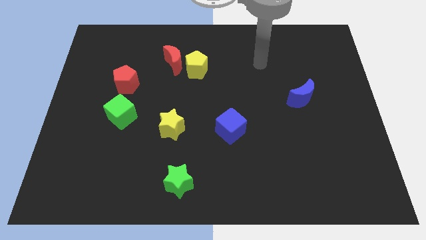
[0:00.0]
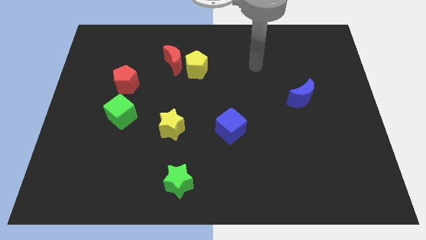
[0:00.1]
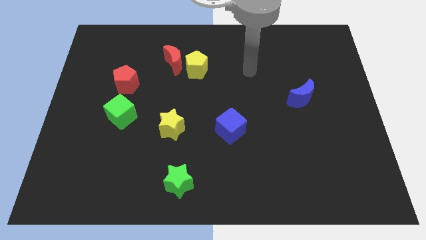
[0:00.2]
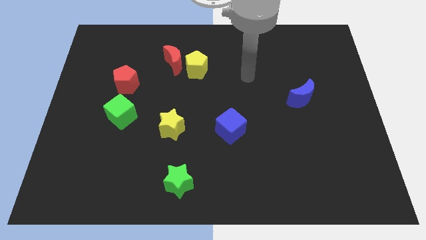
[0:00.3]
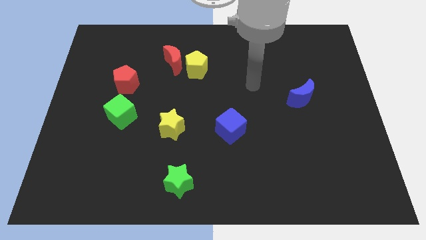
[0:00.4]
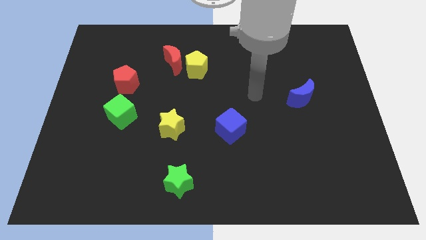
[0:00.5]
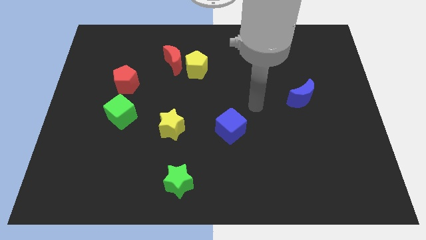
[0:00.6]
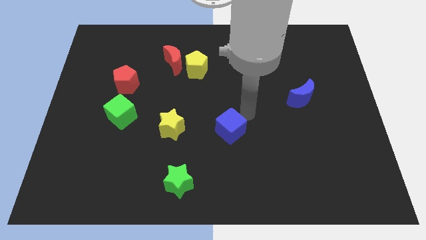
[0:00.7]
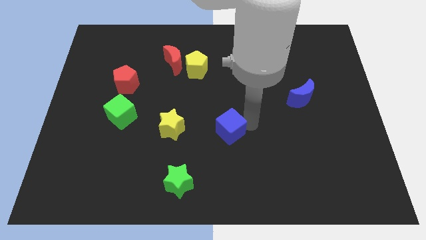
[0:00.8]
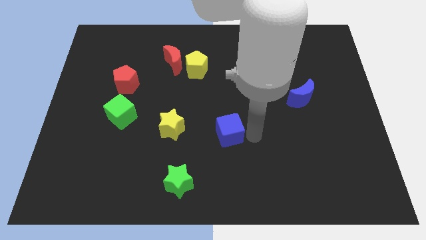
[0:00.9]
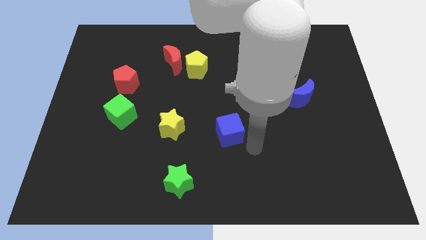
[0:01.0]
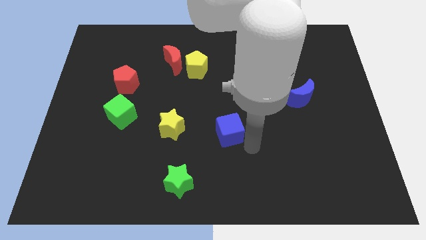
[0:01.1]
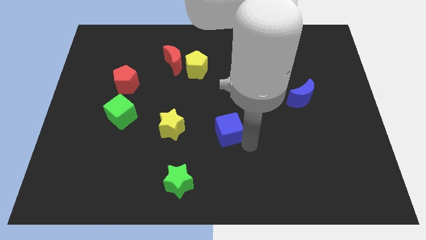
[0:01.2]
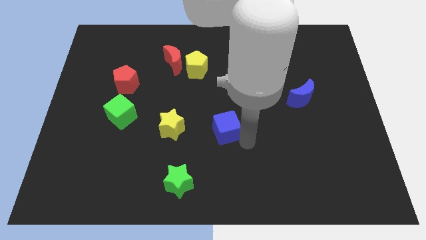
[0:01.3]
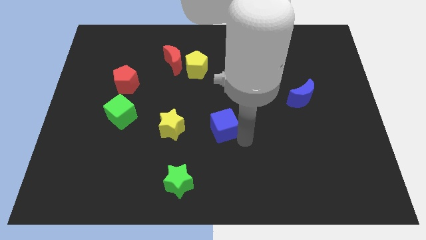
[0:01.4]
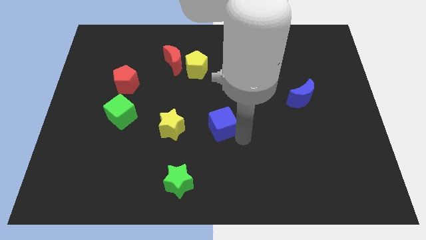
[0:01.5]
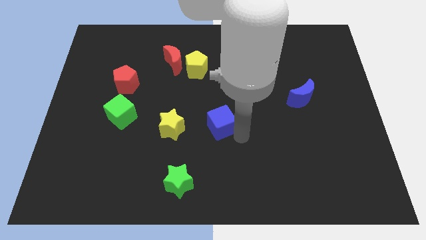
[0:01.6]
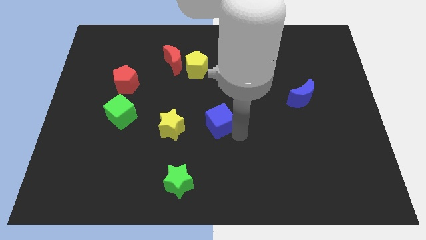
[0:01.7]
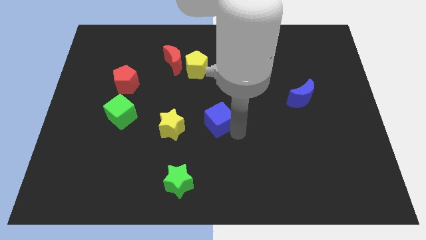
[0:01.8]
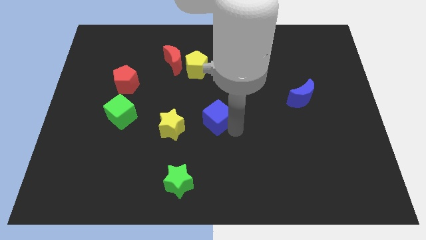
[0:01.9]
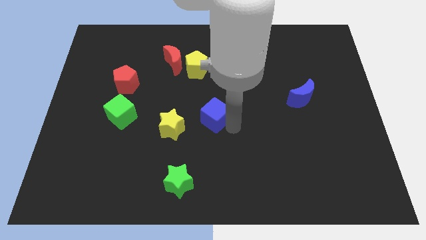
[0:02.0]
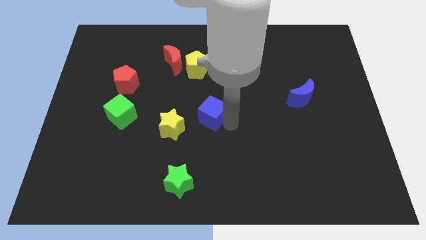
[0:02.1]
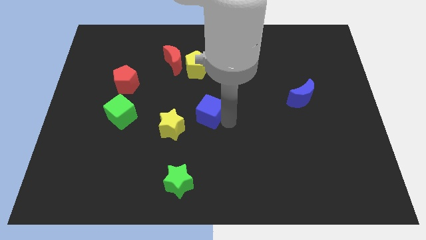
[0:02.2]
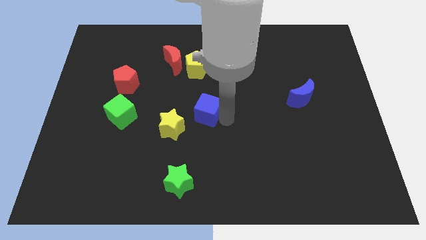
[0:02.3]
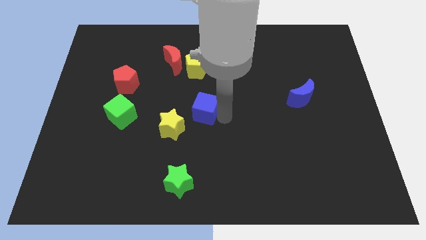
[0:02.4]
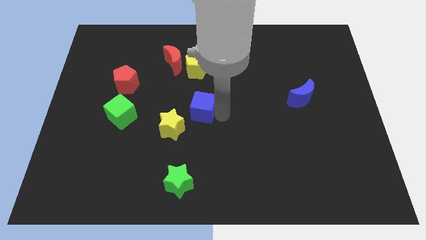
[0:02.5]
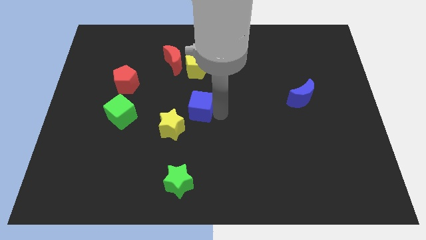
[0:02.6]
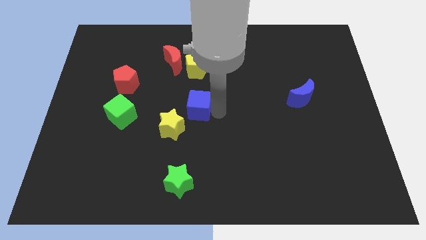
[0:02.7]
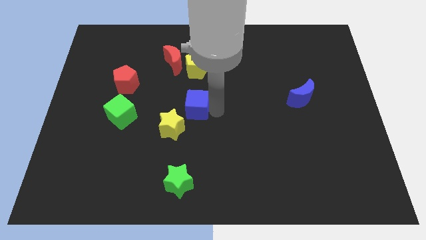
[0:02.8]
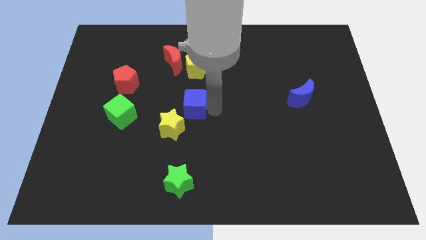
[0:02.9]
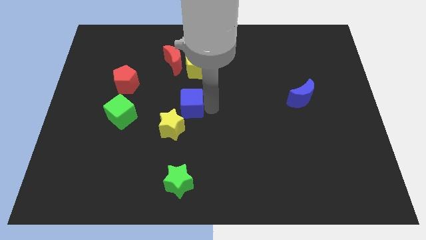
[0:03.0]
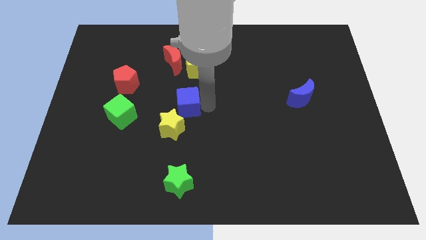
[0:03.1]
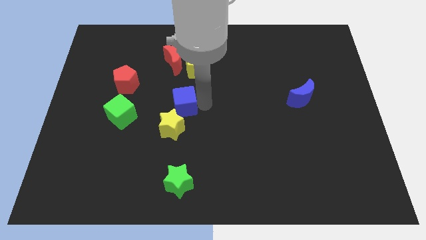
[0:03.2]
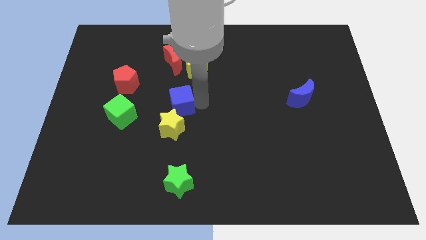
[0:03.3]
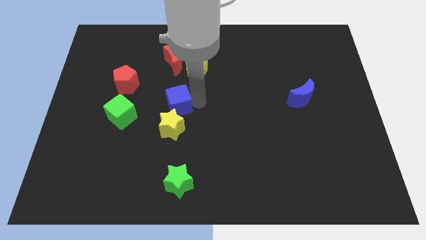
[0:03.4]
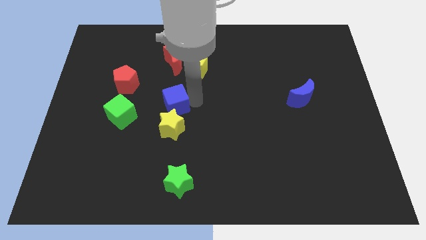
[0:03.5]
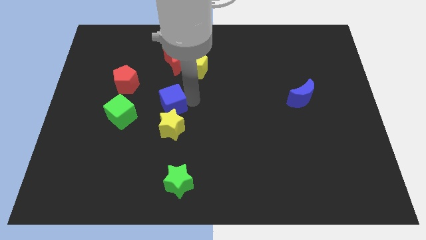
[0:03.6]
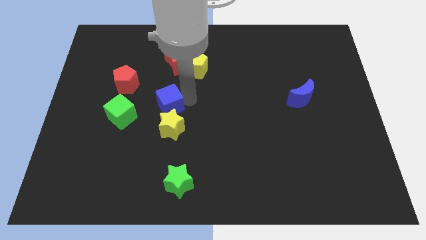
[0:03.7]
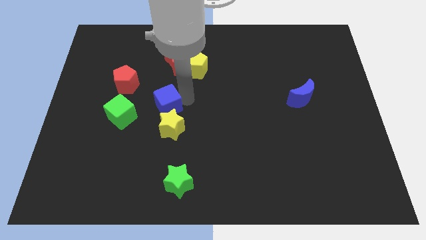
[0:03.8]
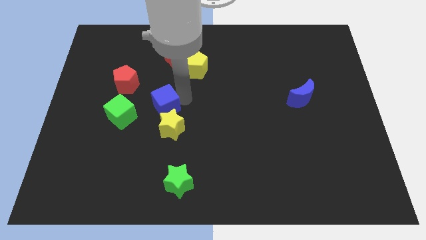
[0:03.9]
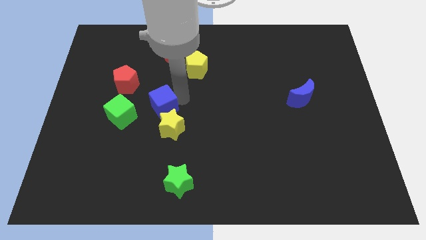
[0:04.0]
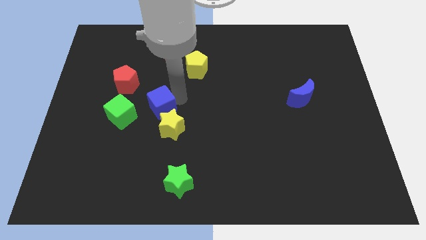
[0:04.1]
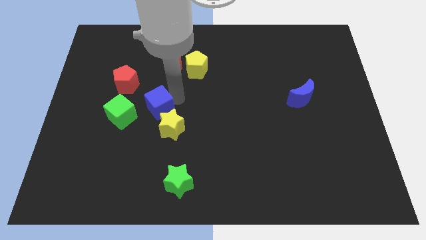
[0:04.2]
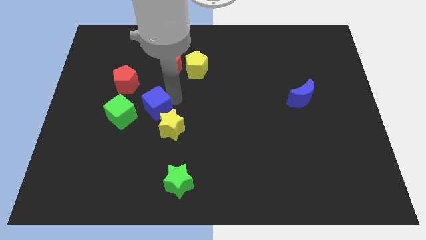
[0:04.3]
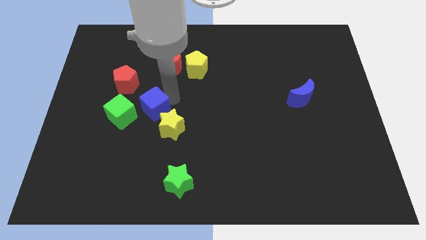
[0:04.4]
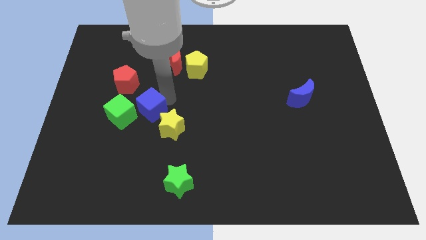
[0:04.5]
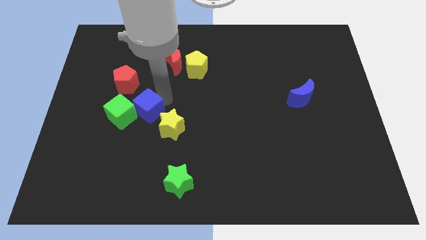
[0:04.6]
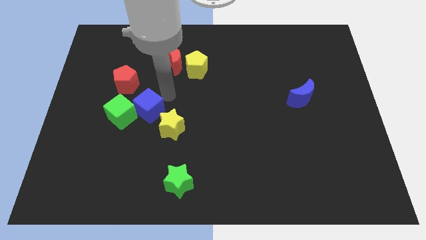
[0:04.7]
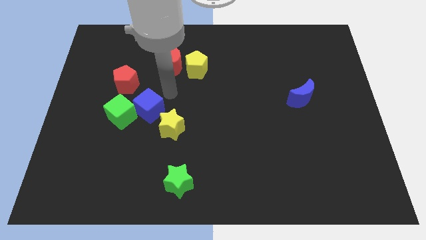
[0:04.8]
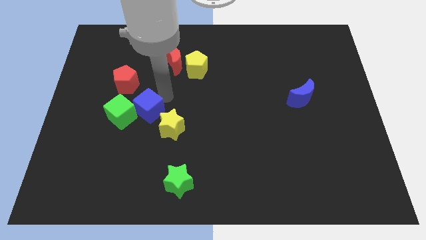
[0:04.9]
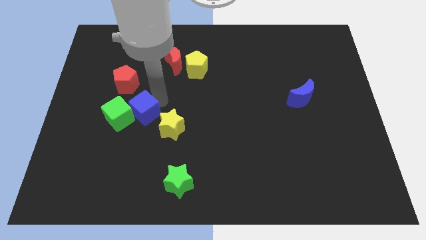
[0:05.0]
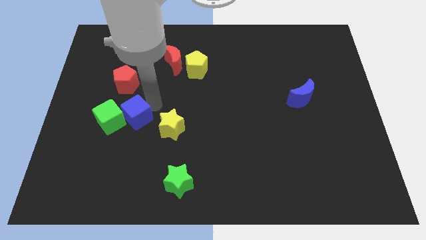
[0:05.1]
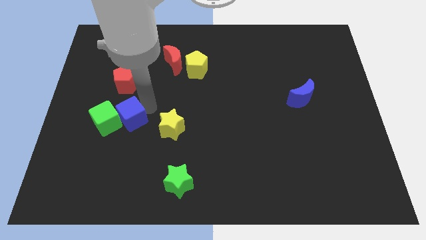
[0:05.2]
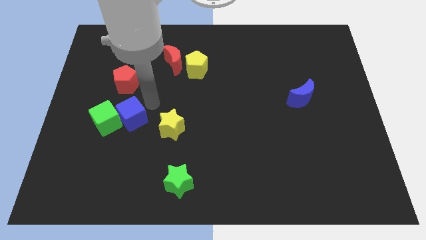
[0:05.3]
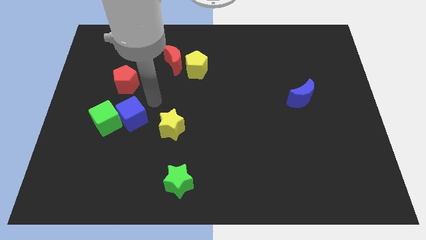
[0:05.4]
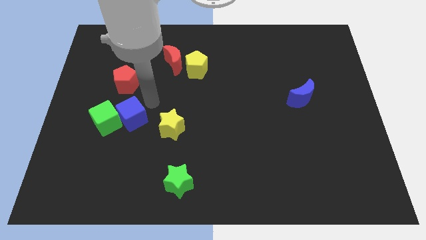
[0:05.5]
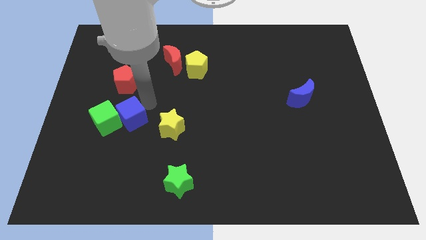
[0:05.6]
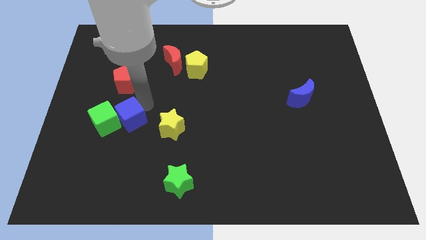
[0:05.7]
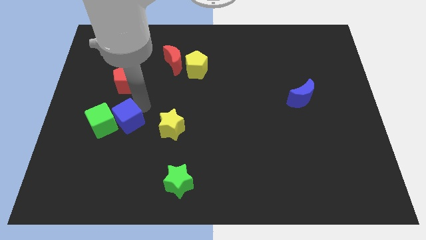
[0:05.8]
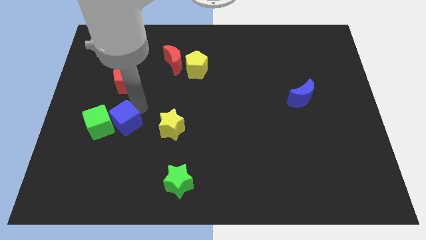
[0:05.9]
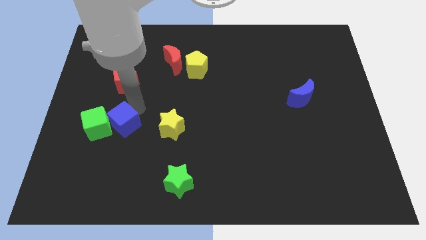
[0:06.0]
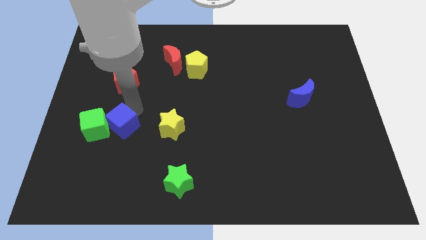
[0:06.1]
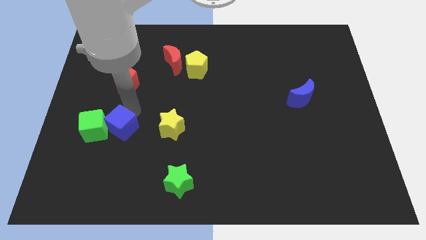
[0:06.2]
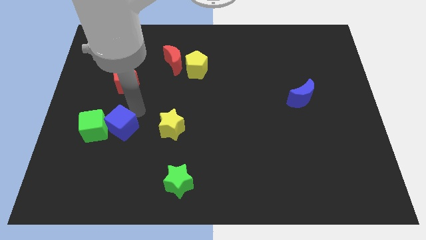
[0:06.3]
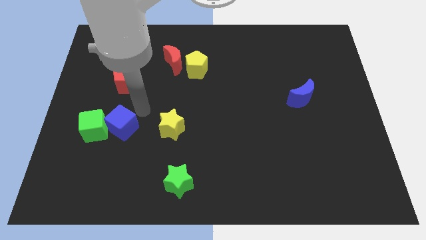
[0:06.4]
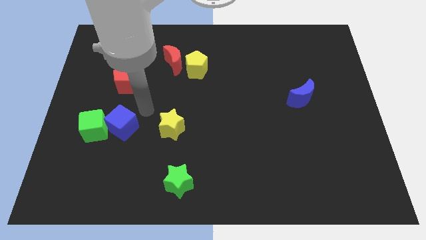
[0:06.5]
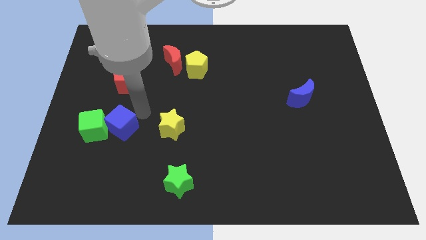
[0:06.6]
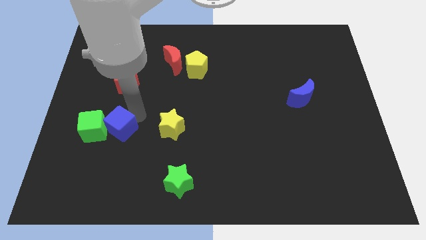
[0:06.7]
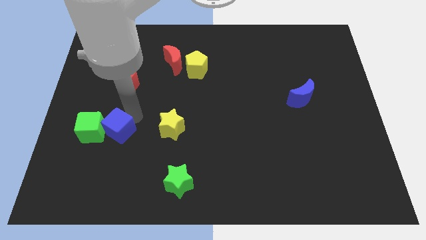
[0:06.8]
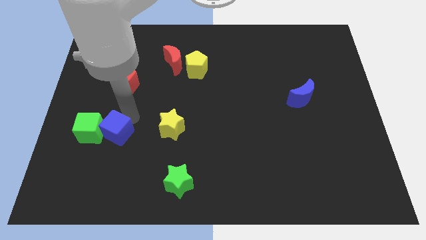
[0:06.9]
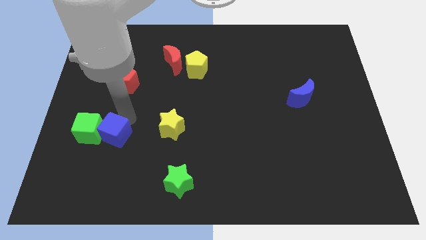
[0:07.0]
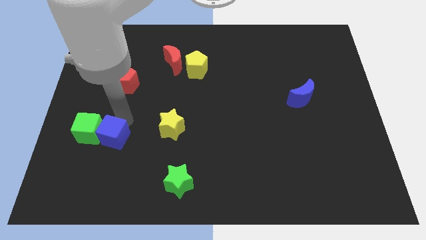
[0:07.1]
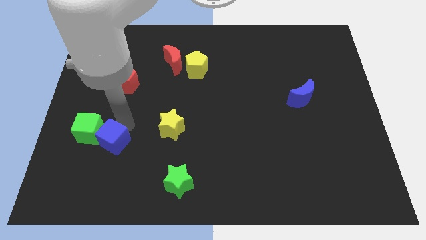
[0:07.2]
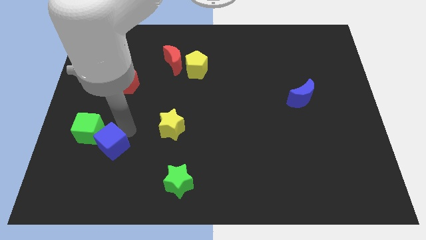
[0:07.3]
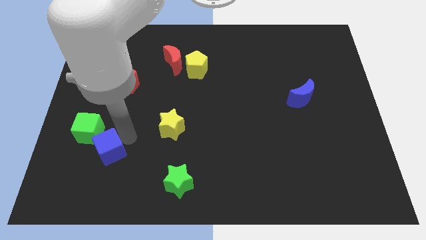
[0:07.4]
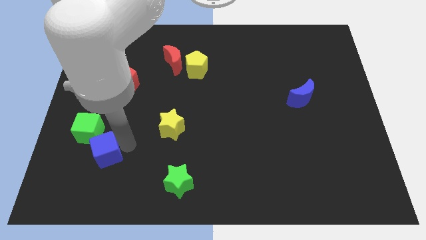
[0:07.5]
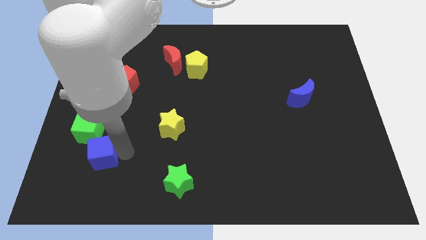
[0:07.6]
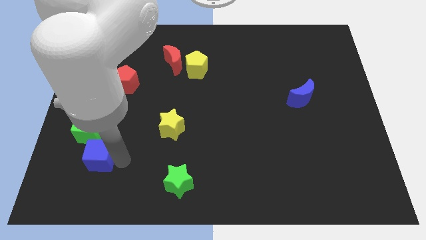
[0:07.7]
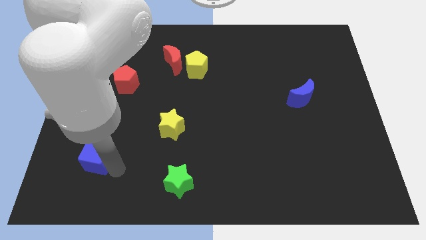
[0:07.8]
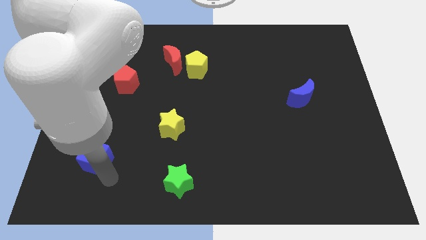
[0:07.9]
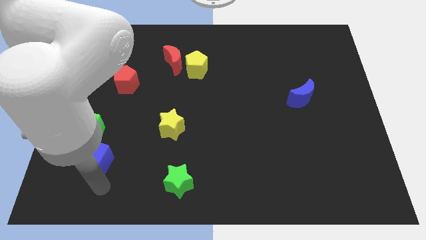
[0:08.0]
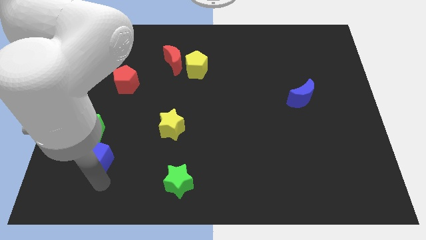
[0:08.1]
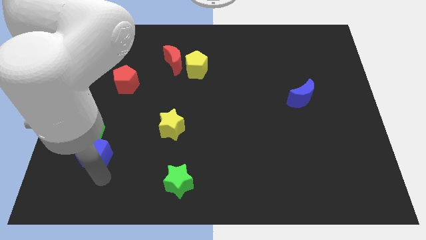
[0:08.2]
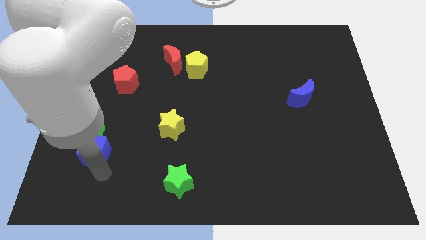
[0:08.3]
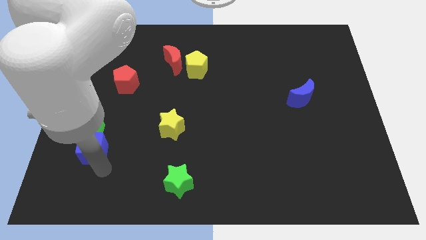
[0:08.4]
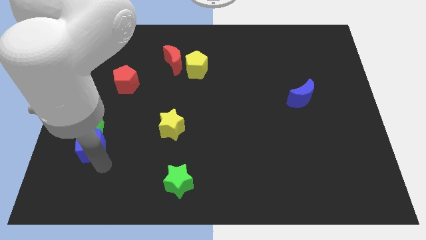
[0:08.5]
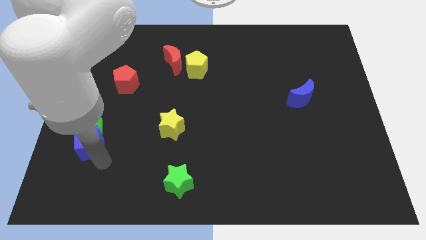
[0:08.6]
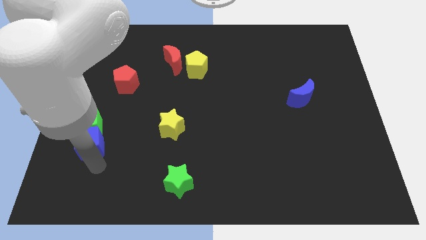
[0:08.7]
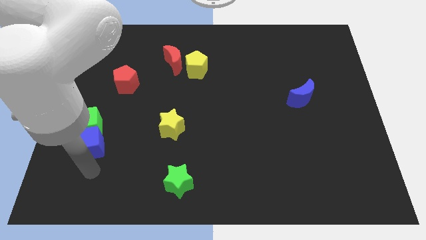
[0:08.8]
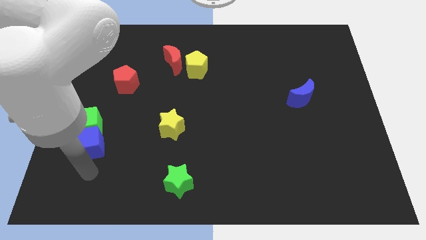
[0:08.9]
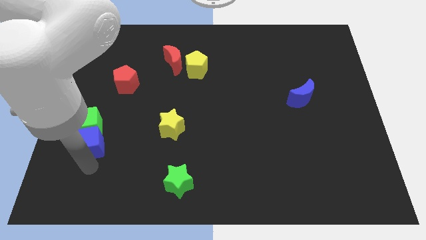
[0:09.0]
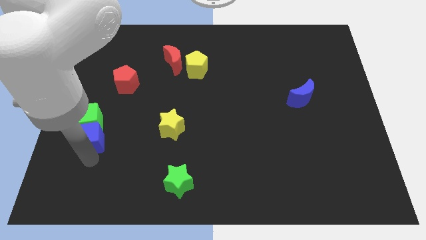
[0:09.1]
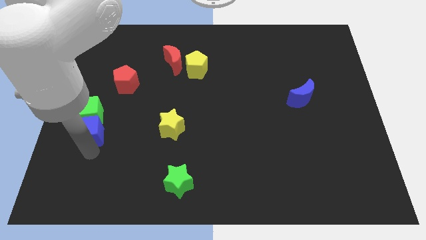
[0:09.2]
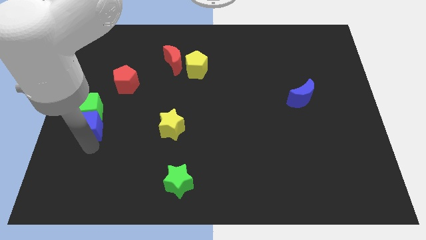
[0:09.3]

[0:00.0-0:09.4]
put the blue cube to the center left
